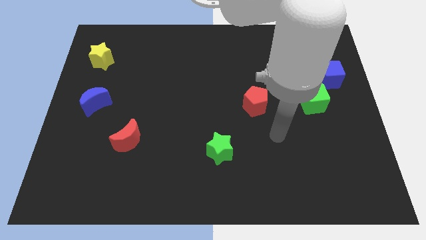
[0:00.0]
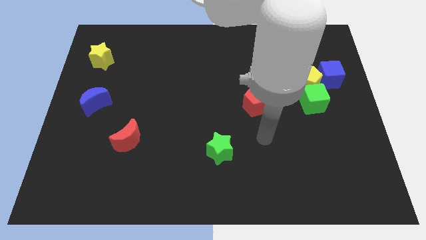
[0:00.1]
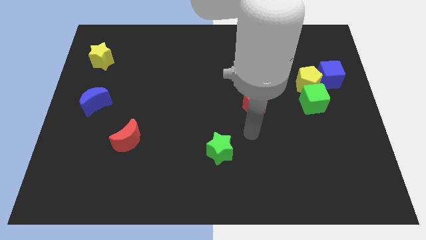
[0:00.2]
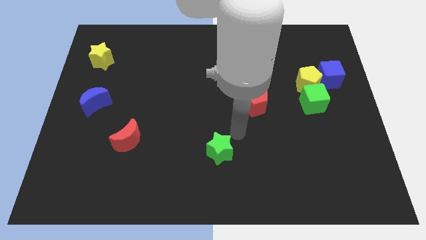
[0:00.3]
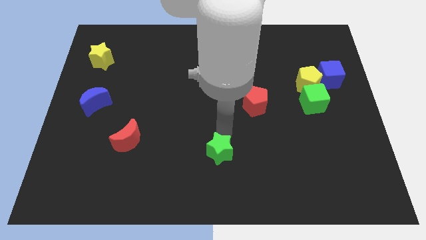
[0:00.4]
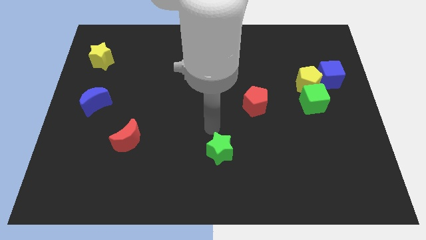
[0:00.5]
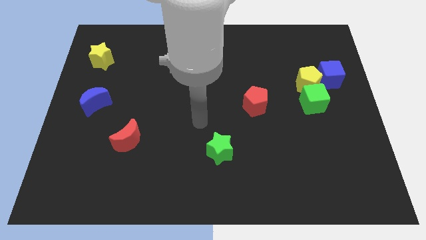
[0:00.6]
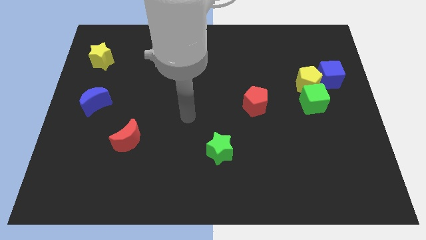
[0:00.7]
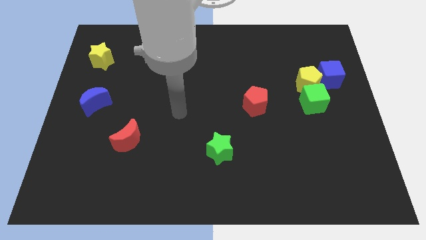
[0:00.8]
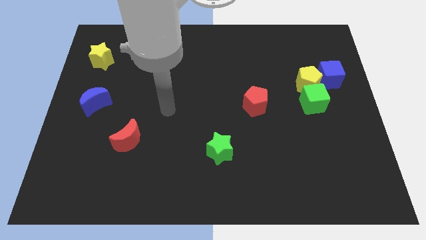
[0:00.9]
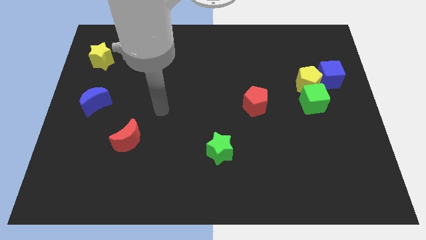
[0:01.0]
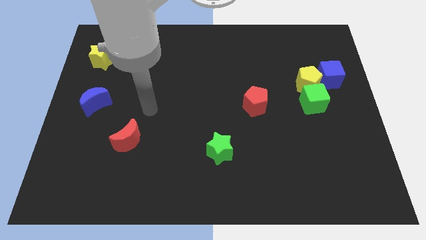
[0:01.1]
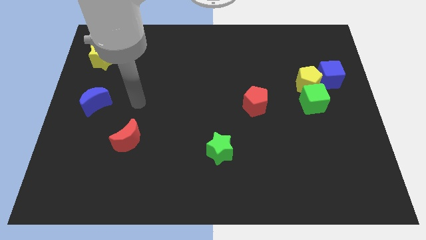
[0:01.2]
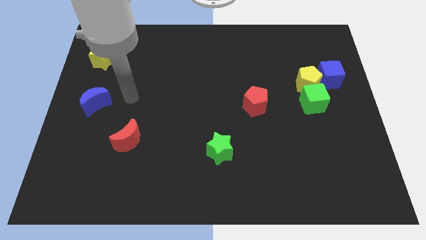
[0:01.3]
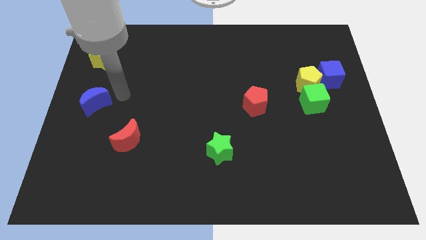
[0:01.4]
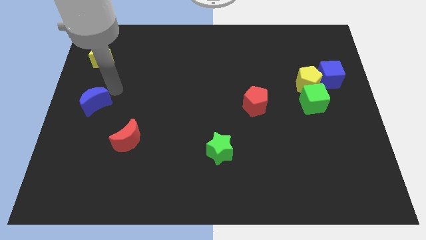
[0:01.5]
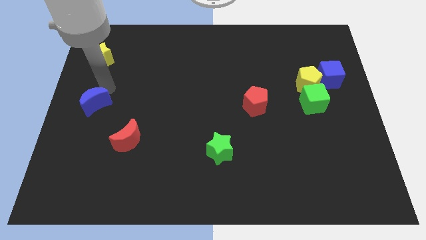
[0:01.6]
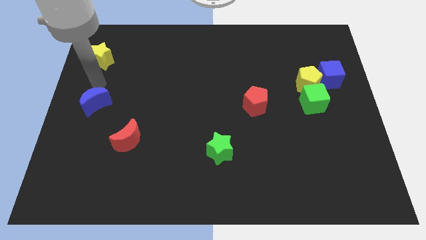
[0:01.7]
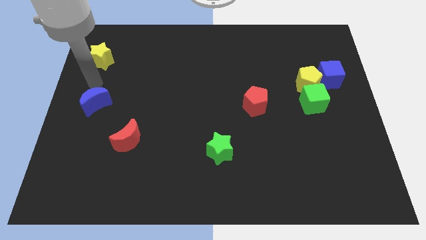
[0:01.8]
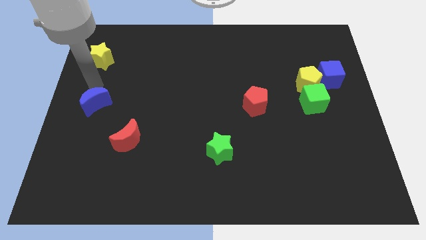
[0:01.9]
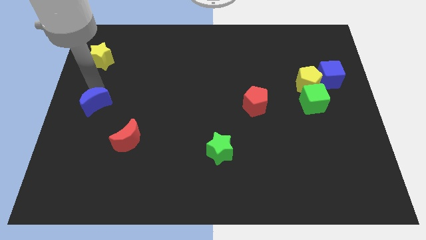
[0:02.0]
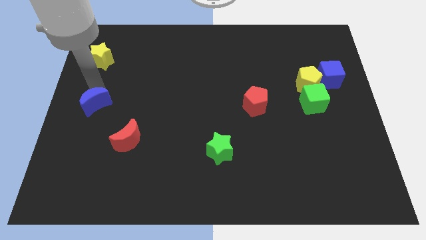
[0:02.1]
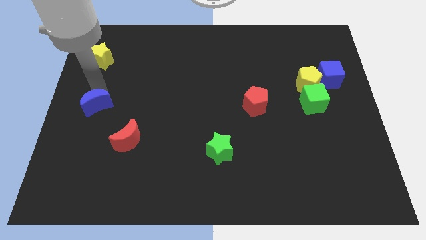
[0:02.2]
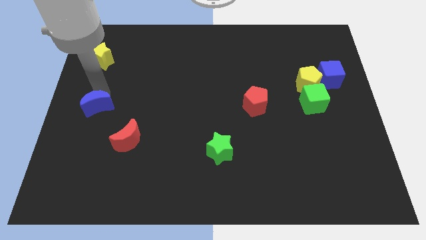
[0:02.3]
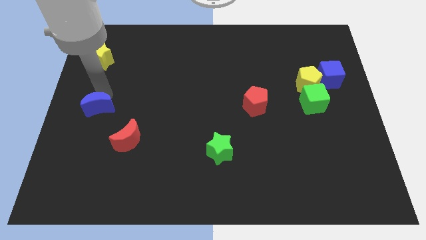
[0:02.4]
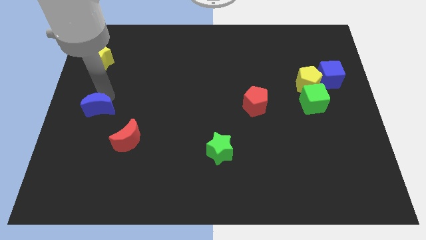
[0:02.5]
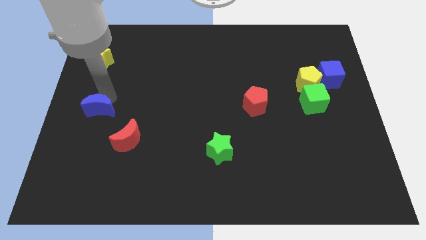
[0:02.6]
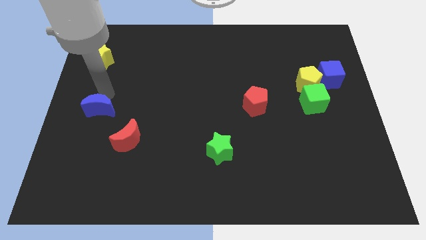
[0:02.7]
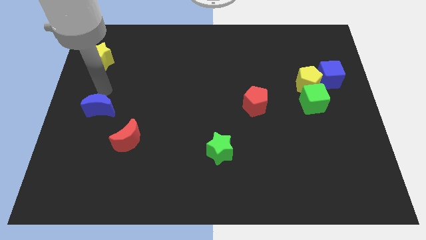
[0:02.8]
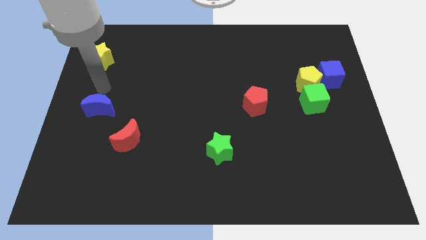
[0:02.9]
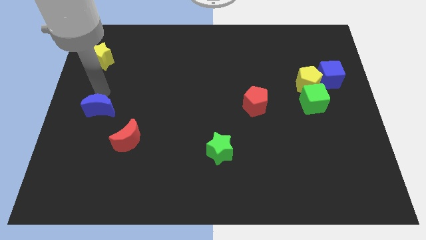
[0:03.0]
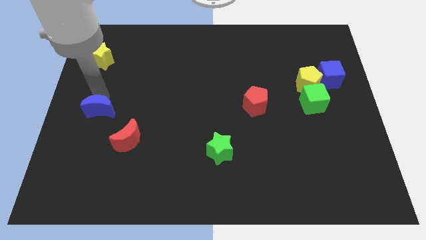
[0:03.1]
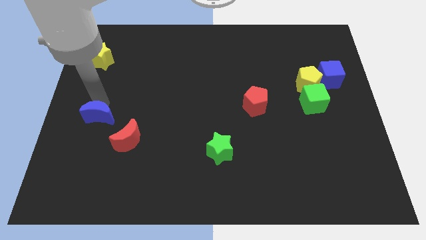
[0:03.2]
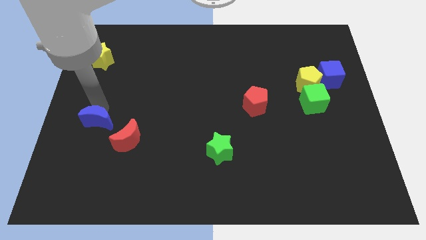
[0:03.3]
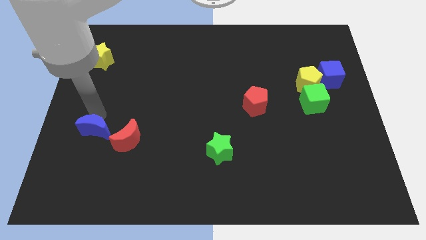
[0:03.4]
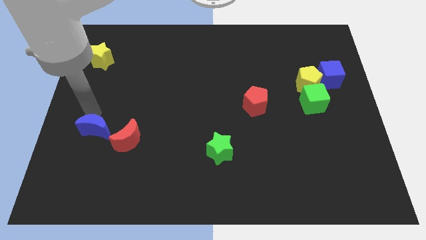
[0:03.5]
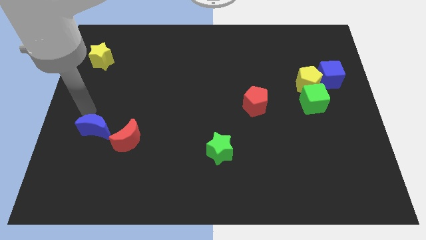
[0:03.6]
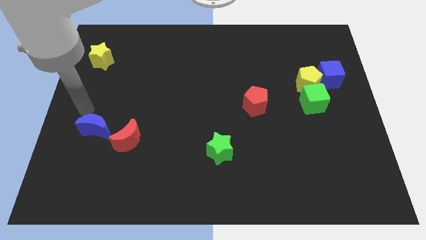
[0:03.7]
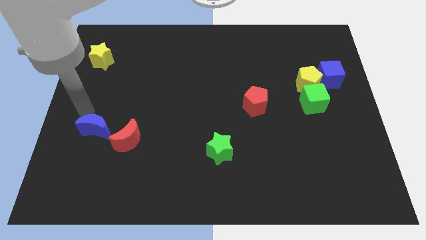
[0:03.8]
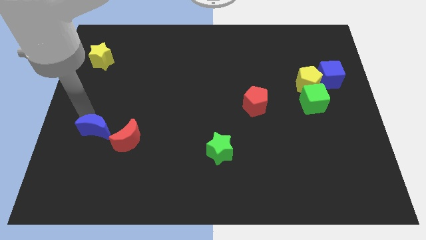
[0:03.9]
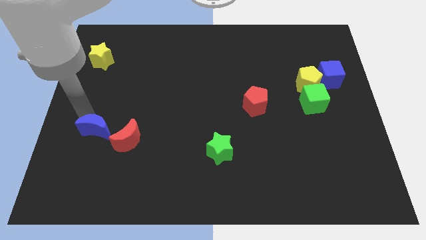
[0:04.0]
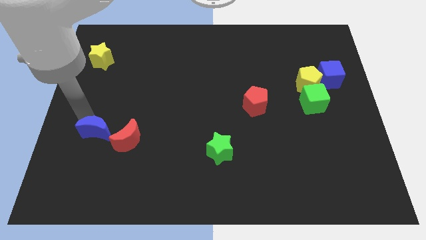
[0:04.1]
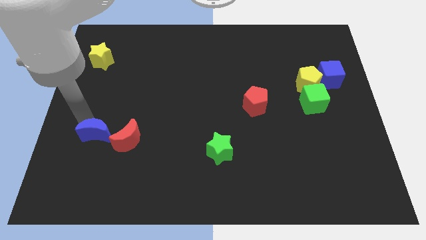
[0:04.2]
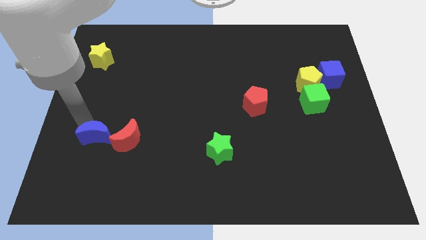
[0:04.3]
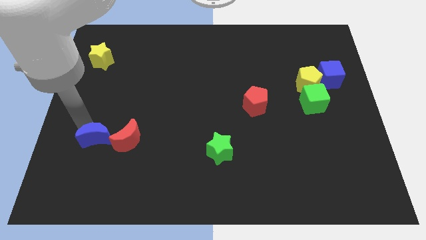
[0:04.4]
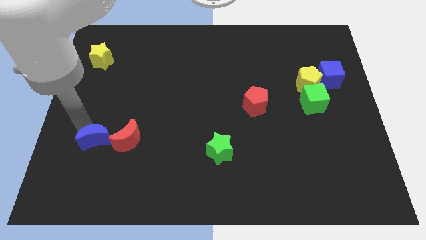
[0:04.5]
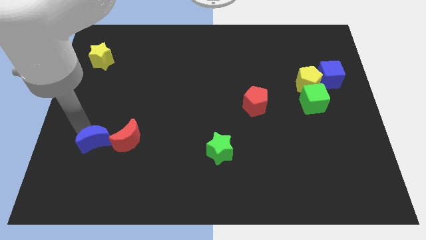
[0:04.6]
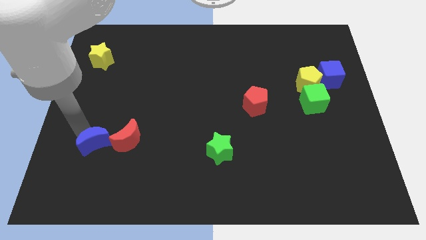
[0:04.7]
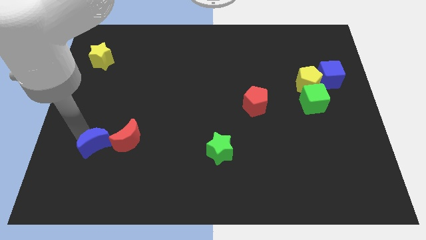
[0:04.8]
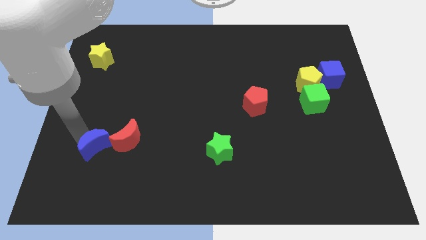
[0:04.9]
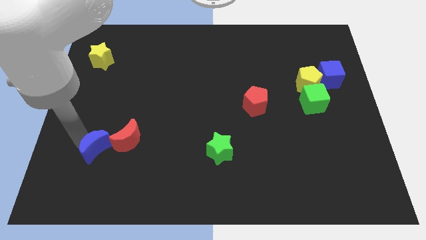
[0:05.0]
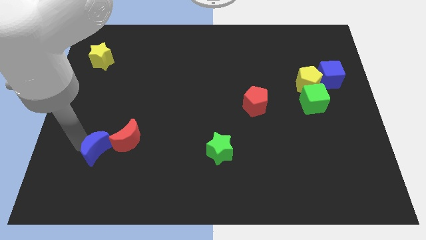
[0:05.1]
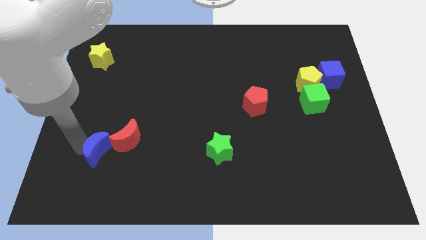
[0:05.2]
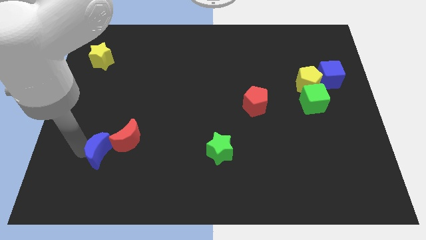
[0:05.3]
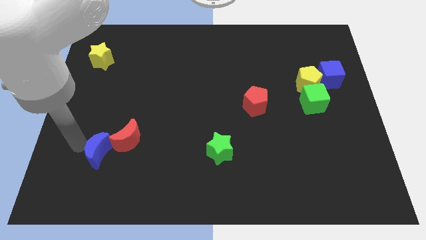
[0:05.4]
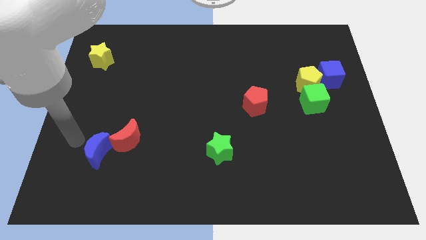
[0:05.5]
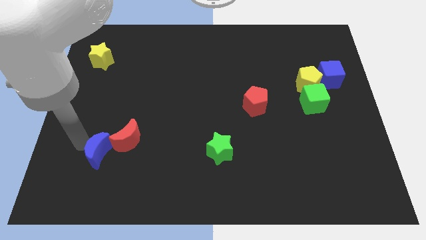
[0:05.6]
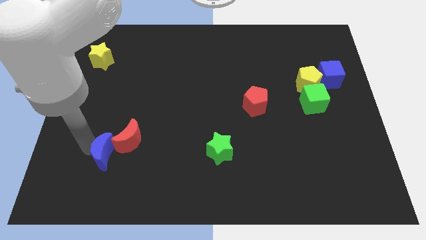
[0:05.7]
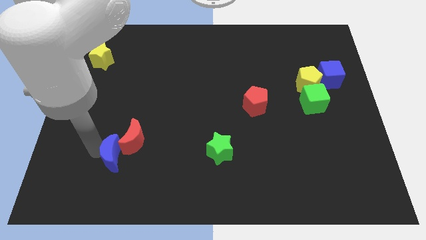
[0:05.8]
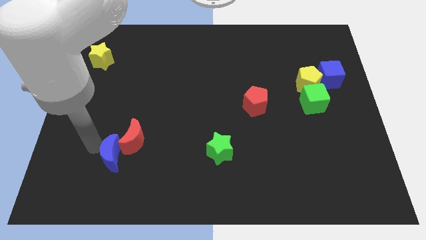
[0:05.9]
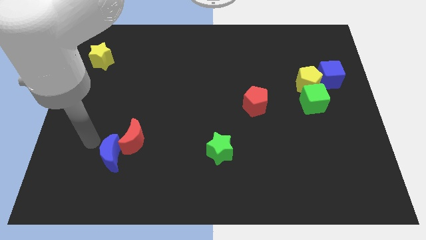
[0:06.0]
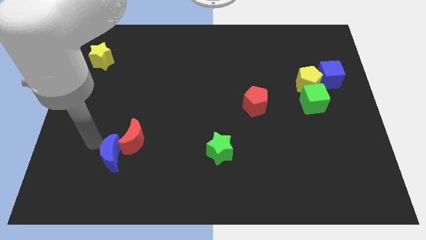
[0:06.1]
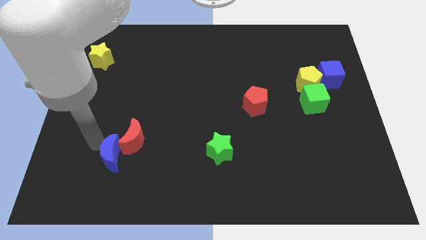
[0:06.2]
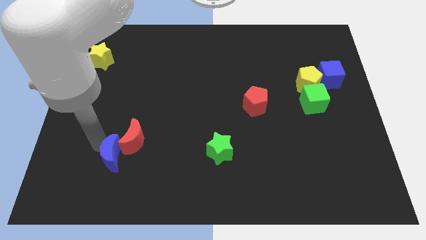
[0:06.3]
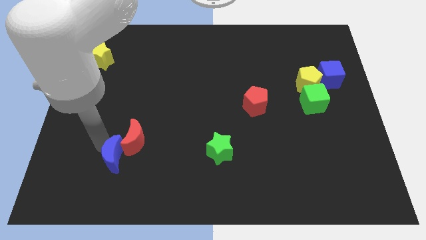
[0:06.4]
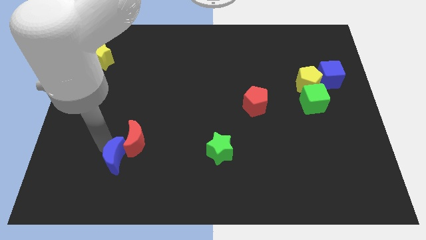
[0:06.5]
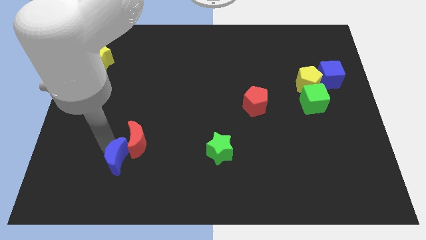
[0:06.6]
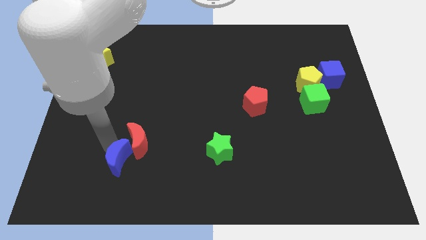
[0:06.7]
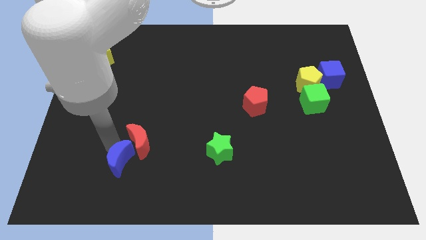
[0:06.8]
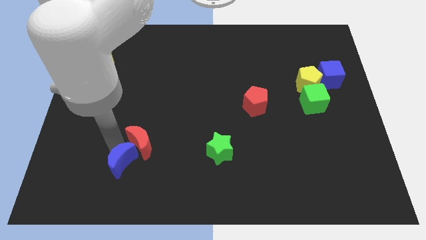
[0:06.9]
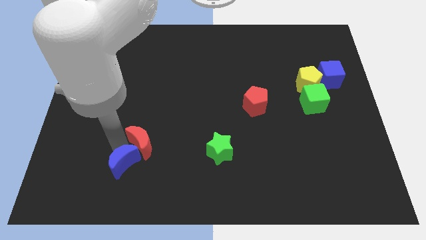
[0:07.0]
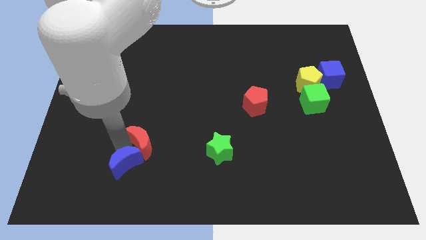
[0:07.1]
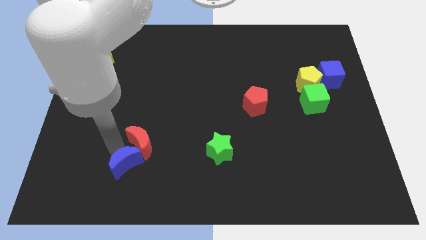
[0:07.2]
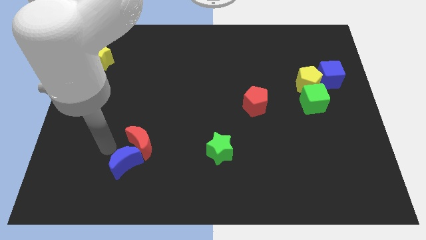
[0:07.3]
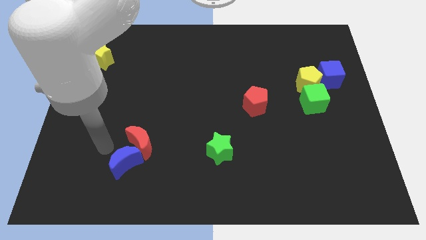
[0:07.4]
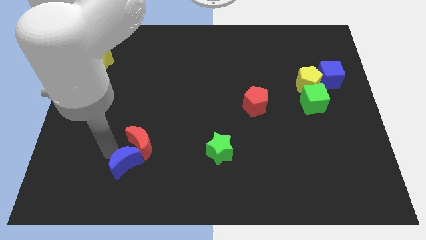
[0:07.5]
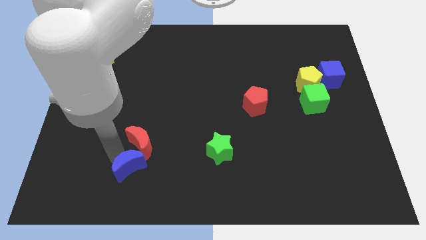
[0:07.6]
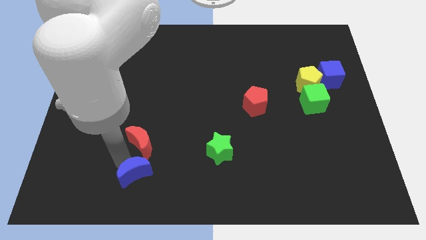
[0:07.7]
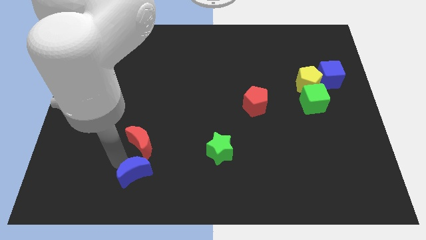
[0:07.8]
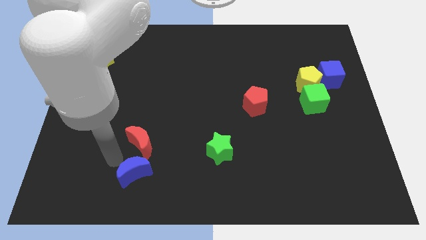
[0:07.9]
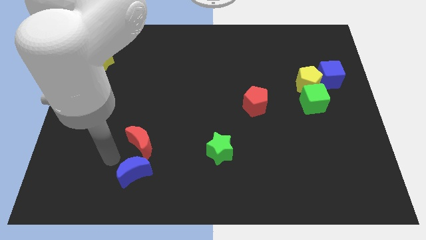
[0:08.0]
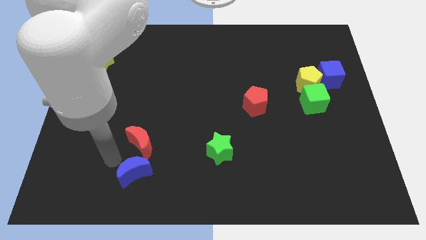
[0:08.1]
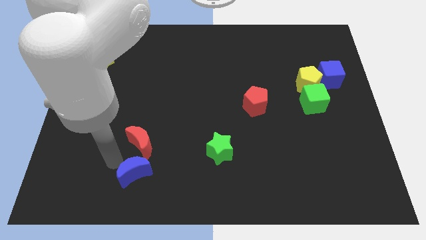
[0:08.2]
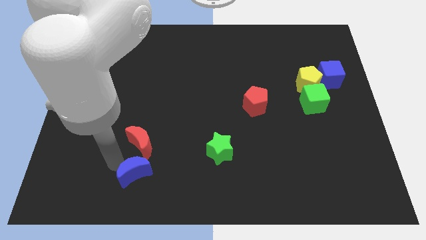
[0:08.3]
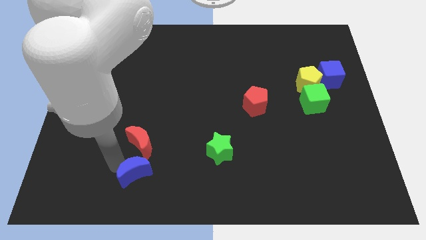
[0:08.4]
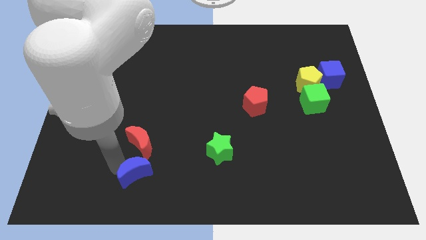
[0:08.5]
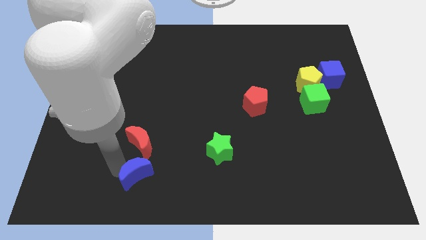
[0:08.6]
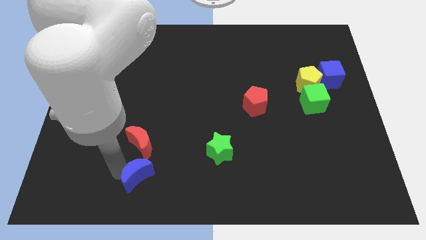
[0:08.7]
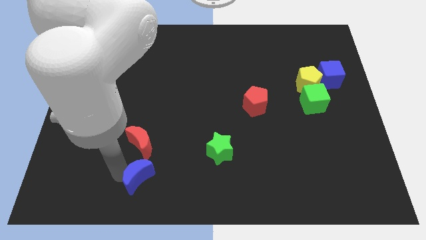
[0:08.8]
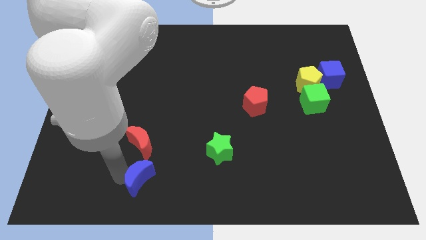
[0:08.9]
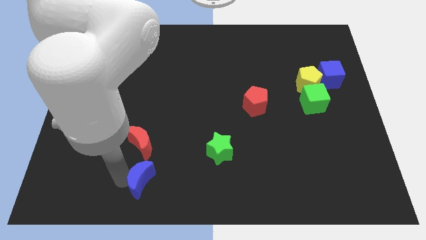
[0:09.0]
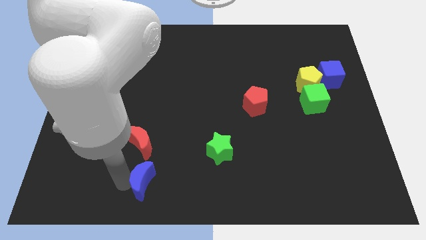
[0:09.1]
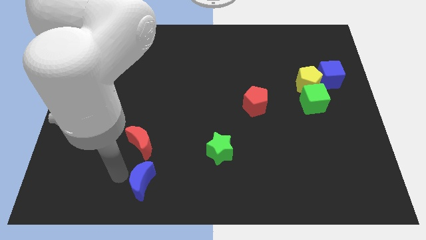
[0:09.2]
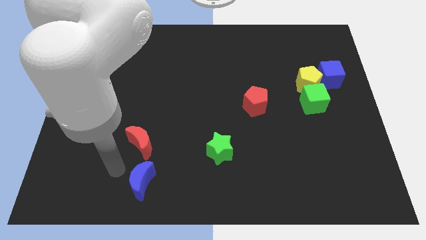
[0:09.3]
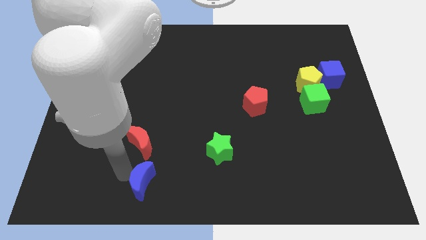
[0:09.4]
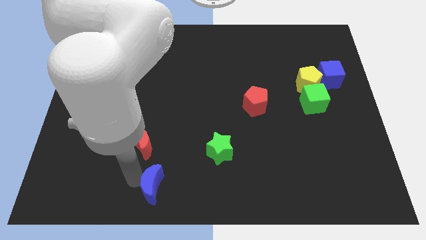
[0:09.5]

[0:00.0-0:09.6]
push the blue moon to the bottom
